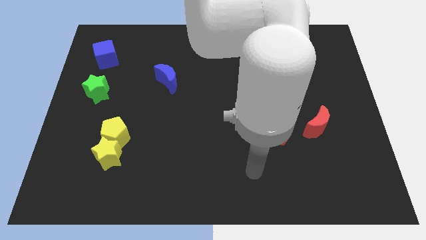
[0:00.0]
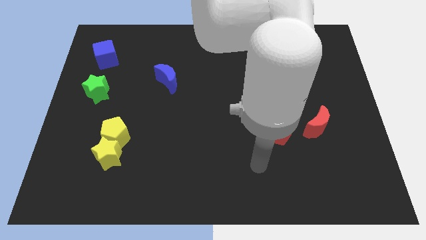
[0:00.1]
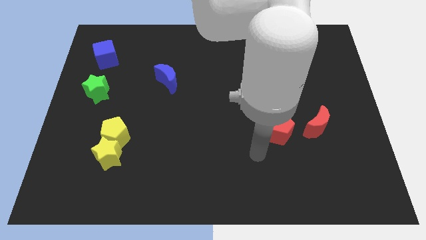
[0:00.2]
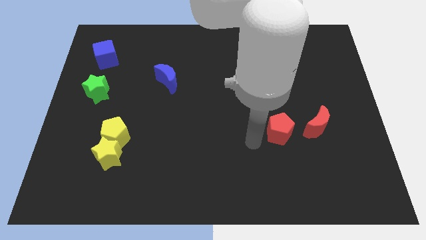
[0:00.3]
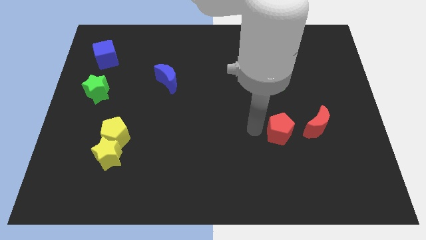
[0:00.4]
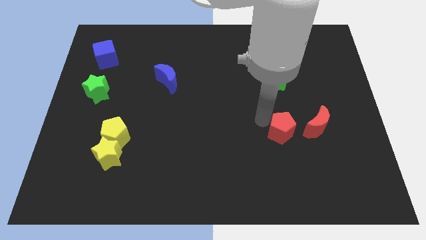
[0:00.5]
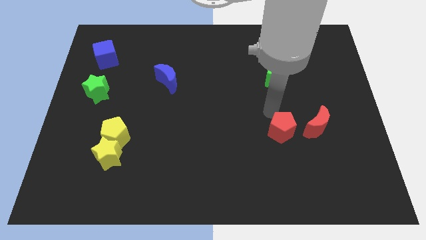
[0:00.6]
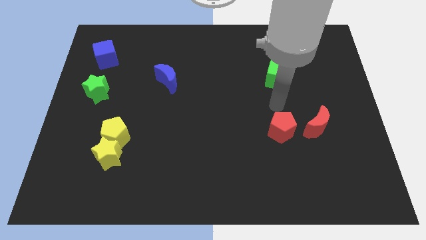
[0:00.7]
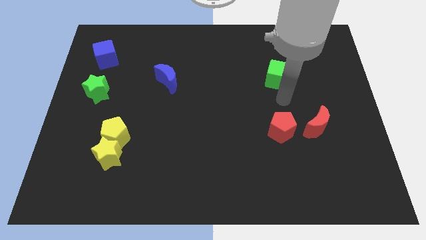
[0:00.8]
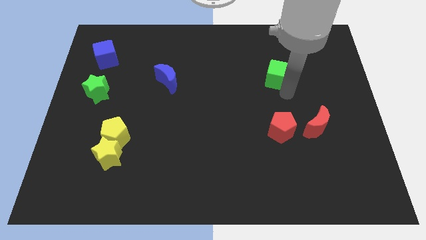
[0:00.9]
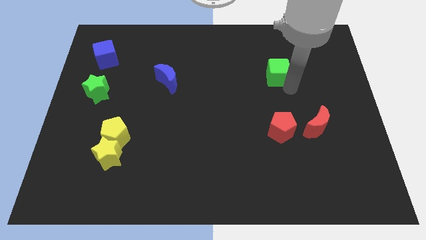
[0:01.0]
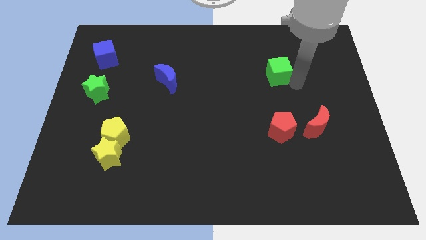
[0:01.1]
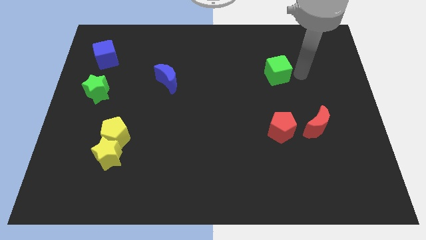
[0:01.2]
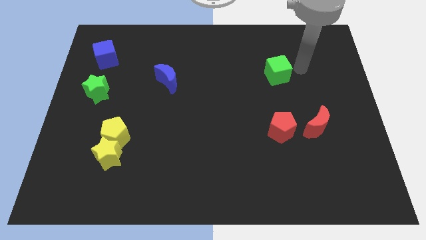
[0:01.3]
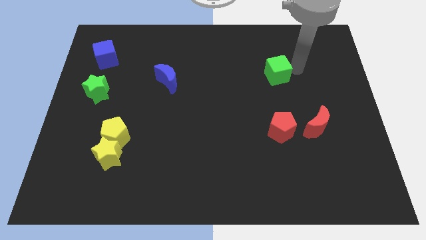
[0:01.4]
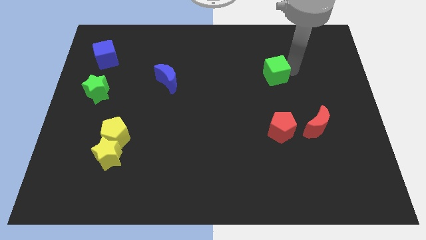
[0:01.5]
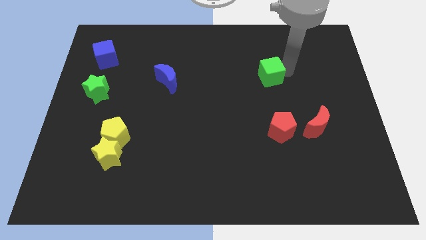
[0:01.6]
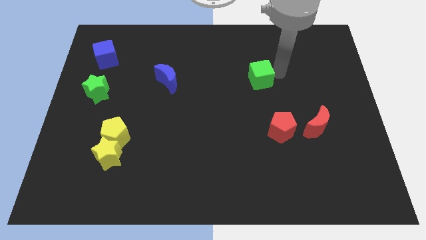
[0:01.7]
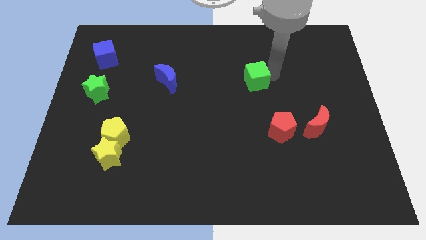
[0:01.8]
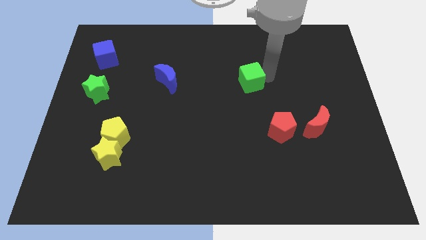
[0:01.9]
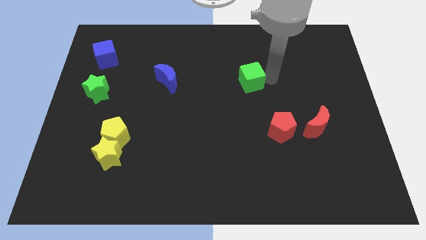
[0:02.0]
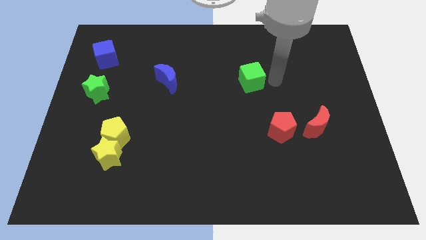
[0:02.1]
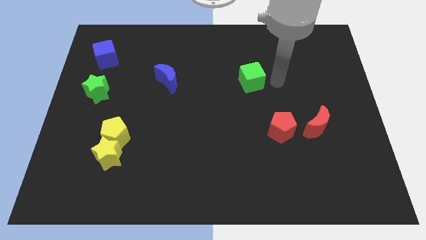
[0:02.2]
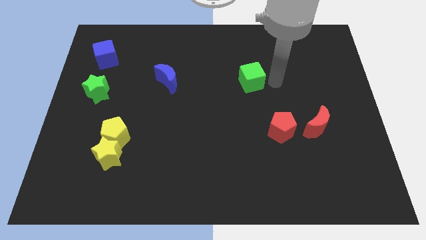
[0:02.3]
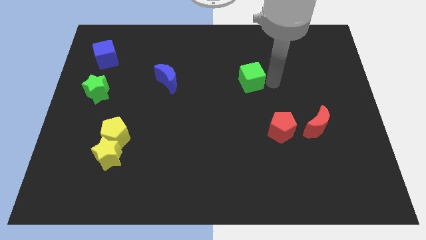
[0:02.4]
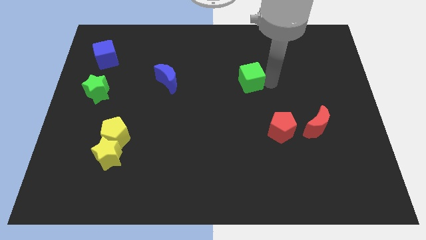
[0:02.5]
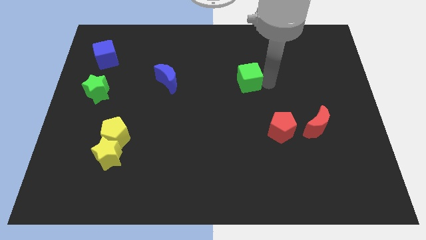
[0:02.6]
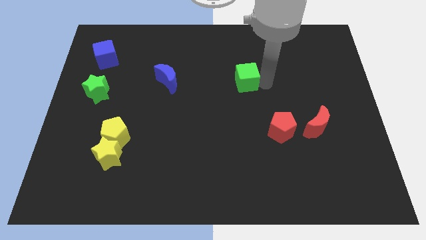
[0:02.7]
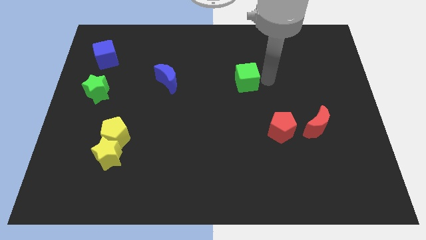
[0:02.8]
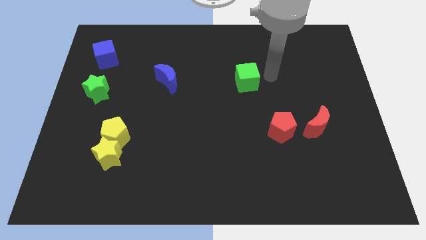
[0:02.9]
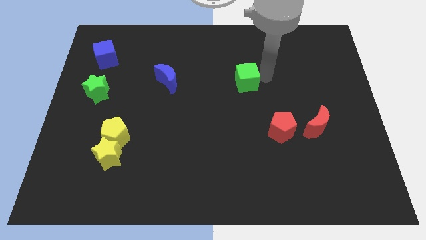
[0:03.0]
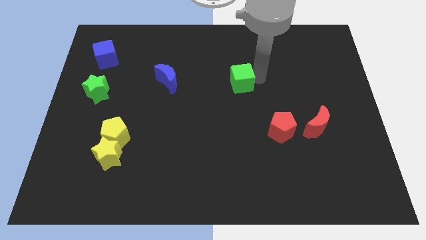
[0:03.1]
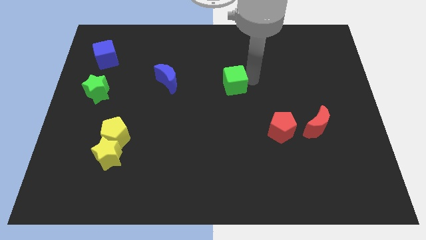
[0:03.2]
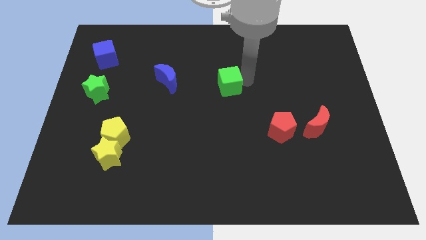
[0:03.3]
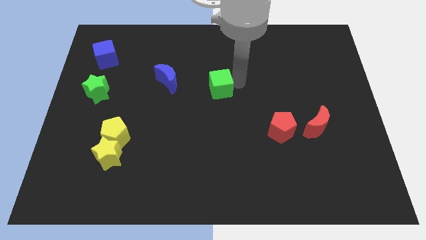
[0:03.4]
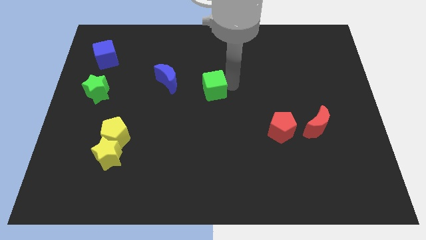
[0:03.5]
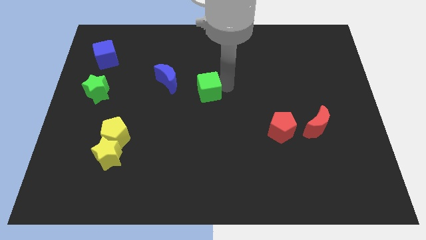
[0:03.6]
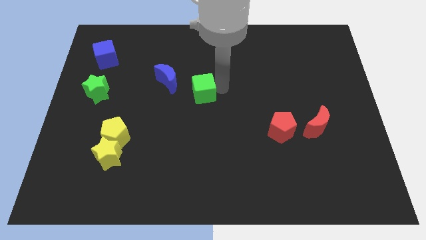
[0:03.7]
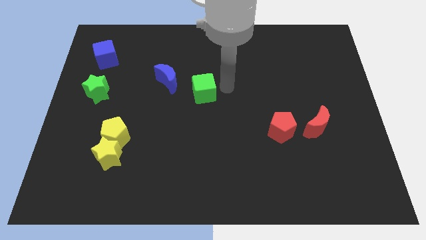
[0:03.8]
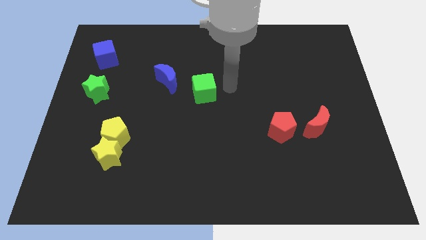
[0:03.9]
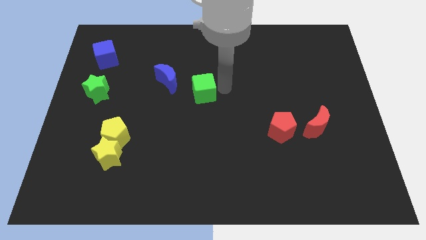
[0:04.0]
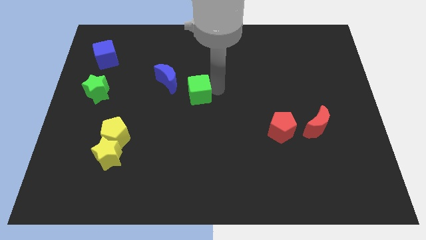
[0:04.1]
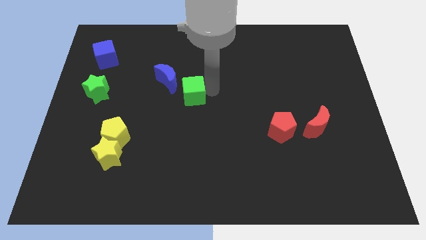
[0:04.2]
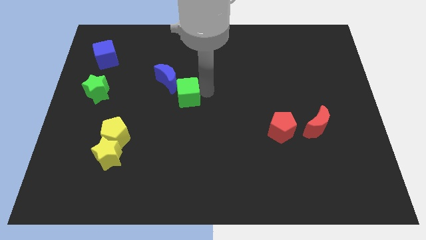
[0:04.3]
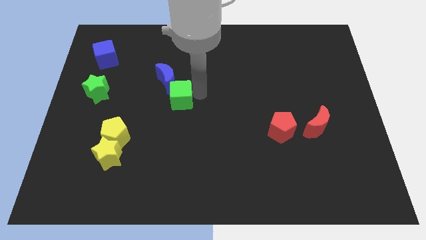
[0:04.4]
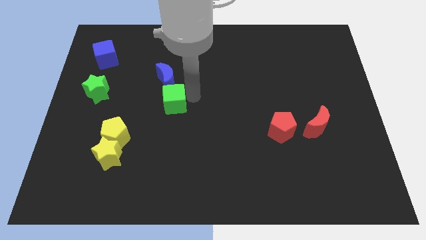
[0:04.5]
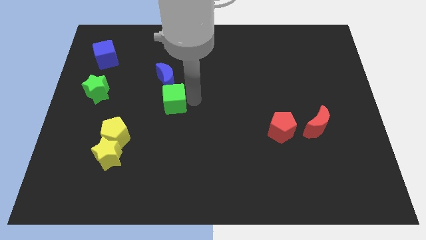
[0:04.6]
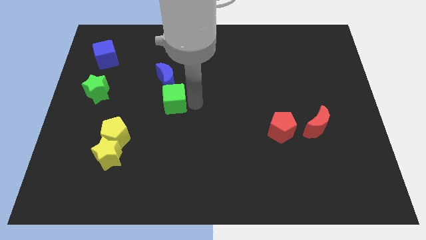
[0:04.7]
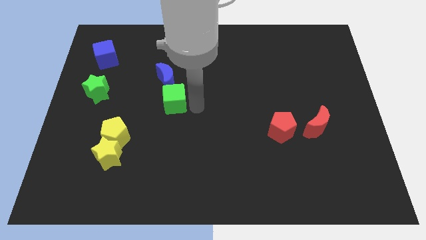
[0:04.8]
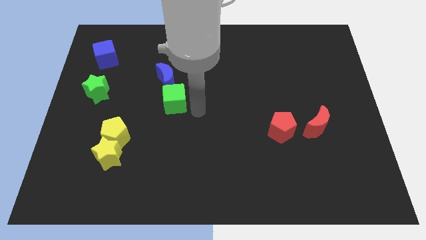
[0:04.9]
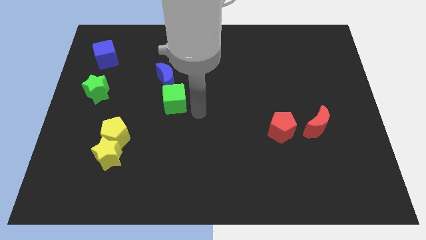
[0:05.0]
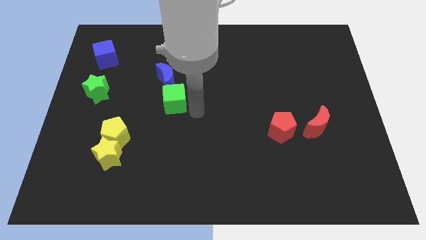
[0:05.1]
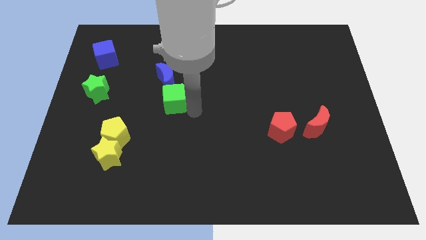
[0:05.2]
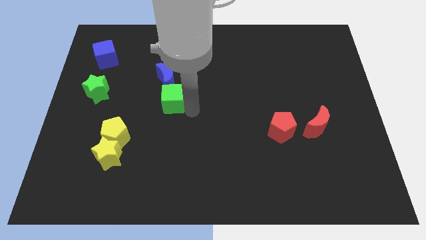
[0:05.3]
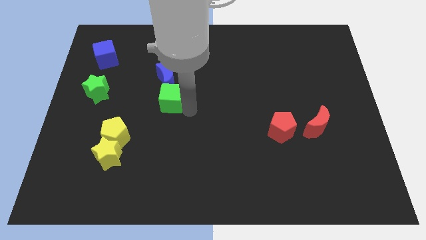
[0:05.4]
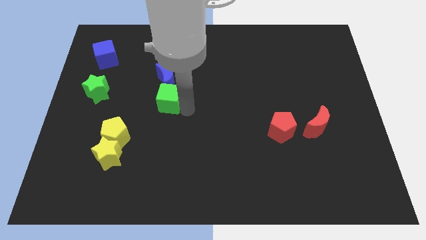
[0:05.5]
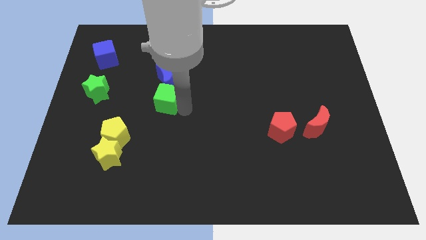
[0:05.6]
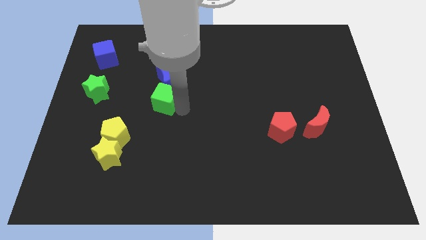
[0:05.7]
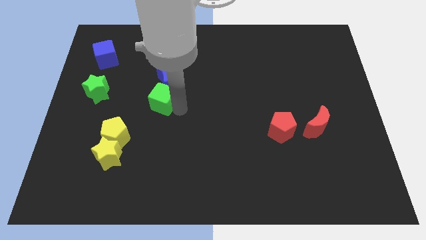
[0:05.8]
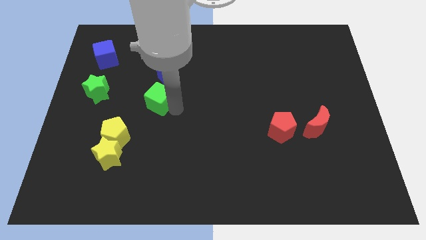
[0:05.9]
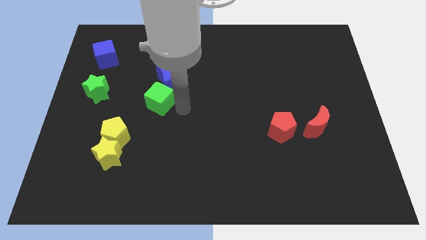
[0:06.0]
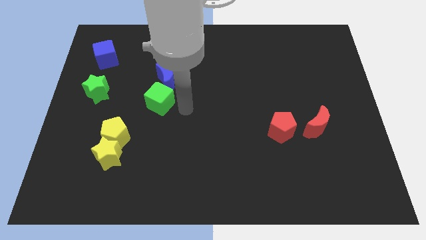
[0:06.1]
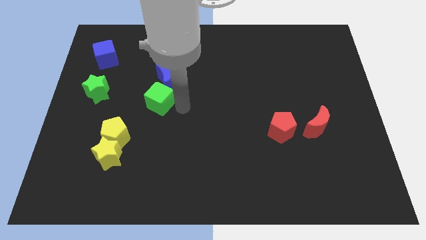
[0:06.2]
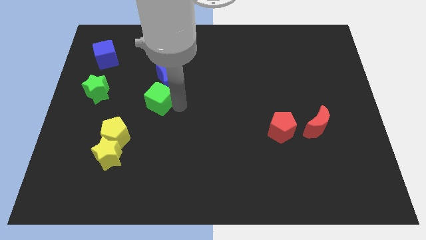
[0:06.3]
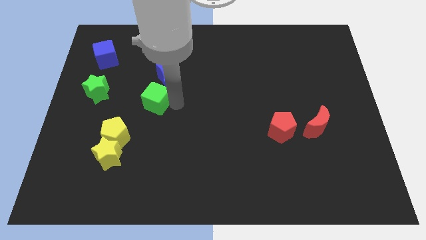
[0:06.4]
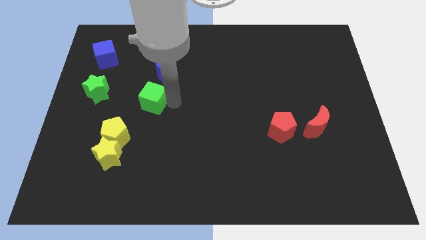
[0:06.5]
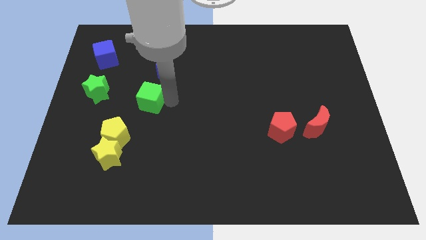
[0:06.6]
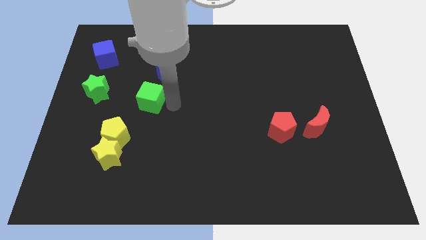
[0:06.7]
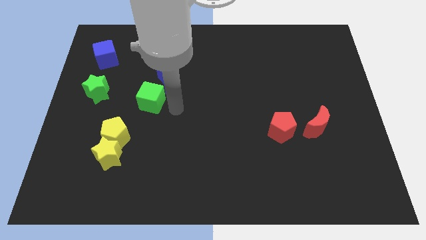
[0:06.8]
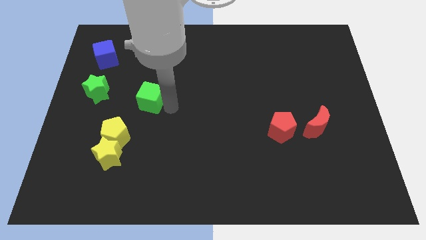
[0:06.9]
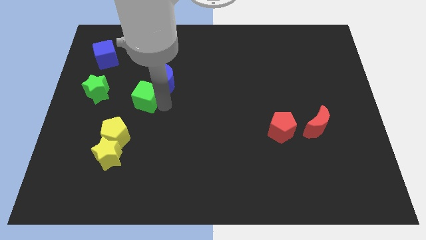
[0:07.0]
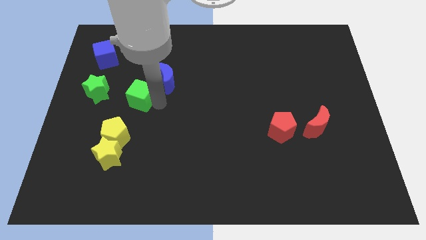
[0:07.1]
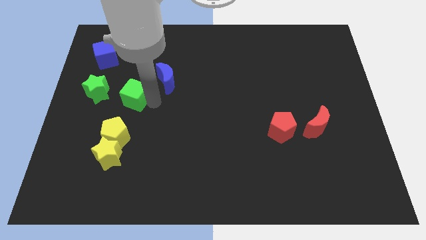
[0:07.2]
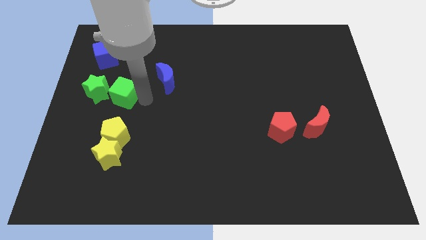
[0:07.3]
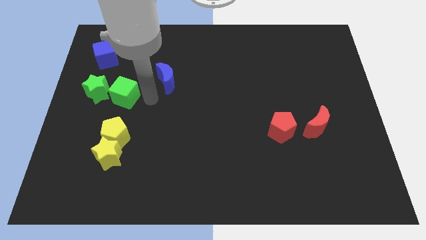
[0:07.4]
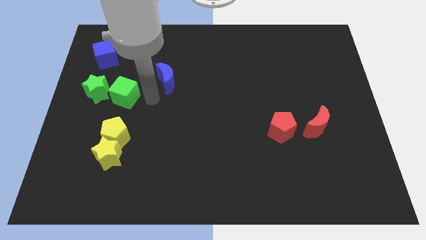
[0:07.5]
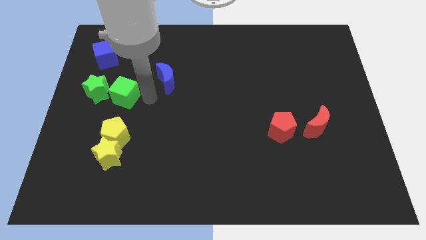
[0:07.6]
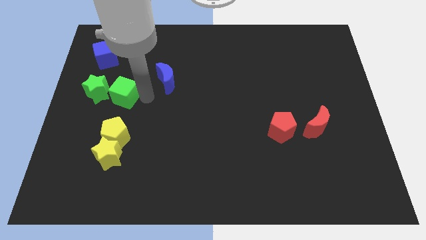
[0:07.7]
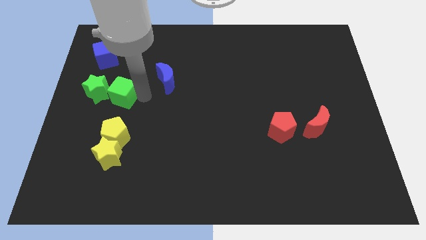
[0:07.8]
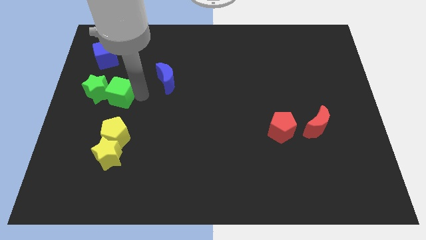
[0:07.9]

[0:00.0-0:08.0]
slide the green cube close to the green star

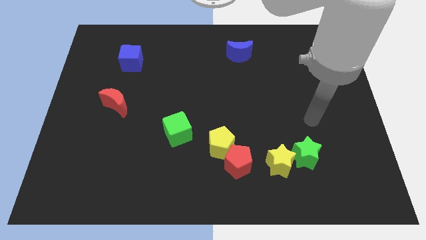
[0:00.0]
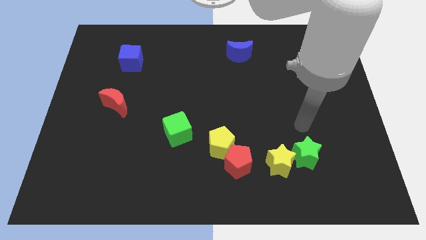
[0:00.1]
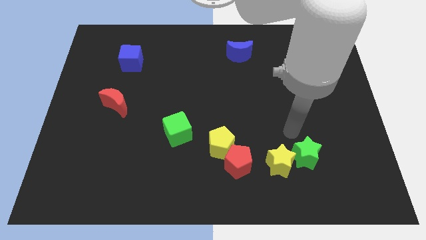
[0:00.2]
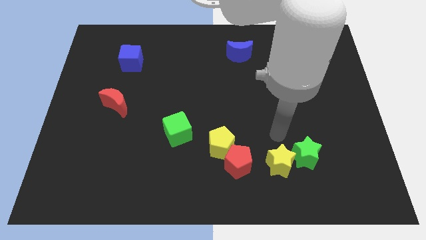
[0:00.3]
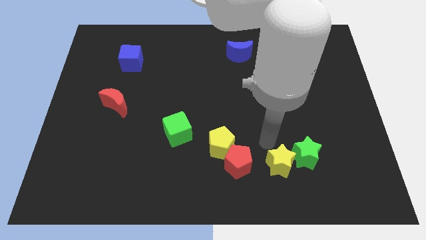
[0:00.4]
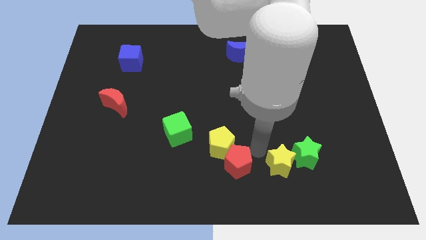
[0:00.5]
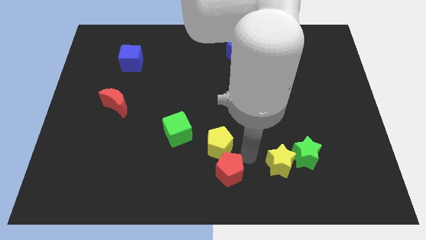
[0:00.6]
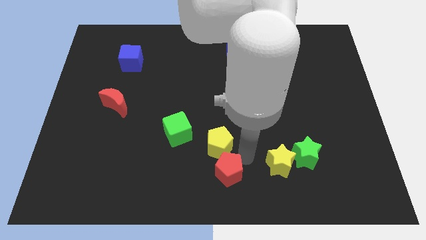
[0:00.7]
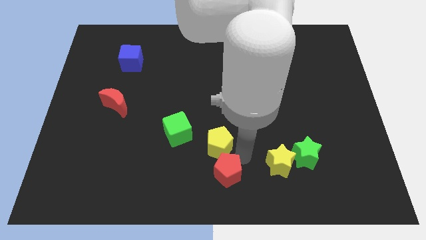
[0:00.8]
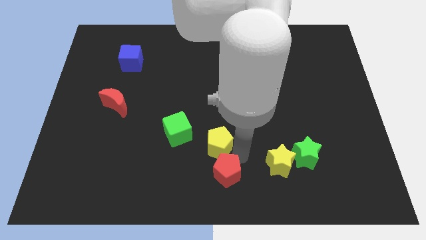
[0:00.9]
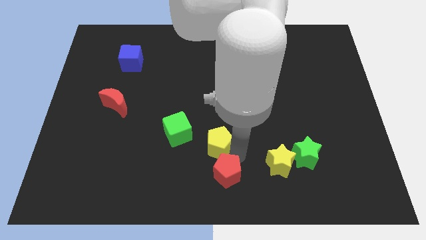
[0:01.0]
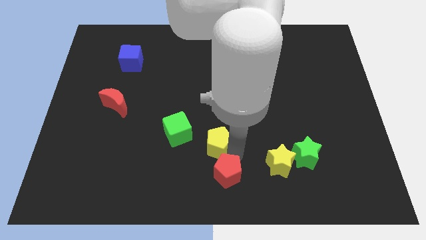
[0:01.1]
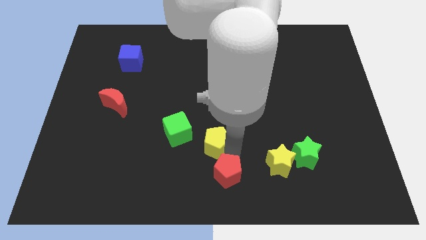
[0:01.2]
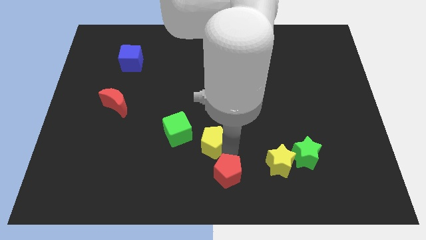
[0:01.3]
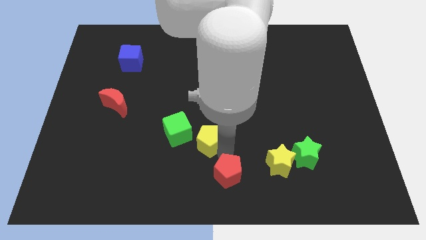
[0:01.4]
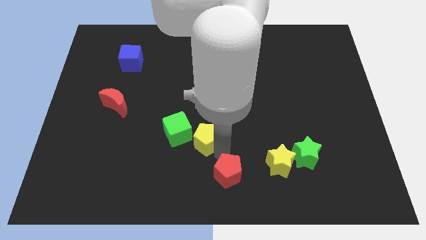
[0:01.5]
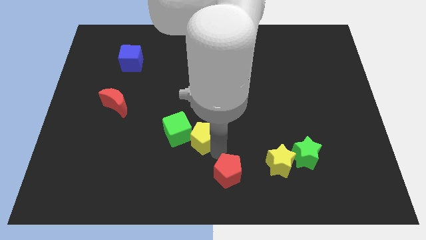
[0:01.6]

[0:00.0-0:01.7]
move the yellow pentagon next to the green cube
